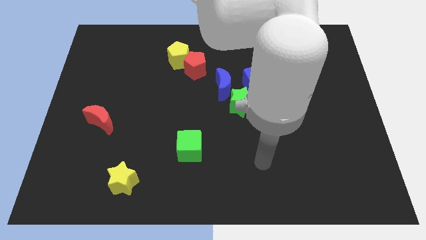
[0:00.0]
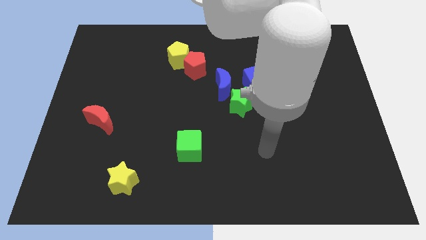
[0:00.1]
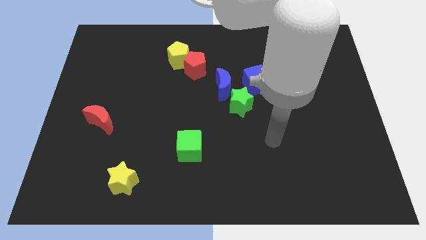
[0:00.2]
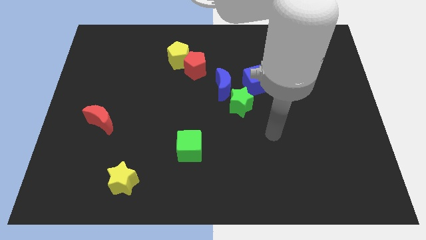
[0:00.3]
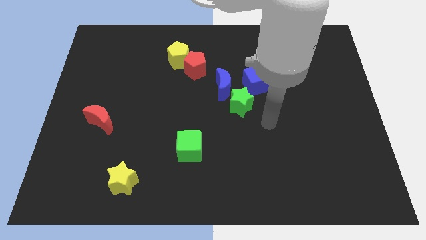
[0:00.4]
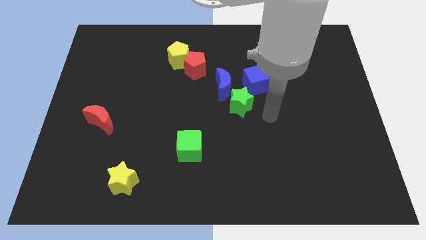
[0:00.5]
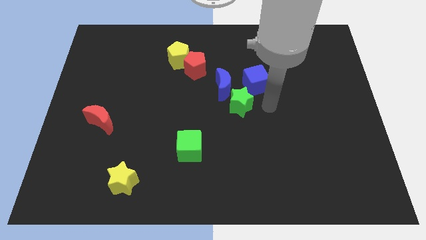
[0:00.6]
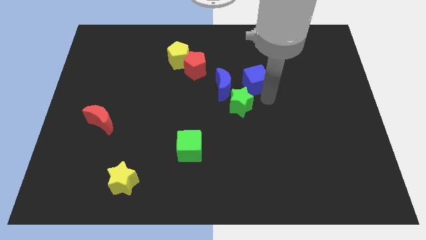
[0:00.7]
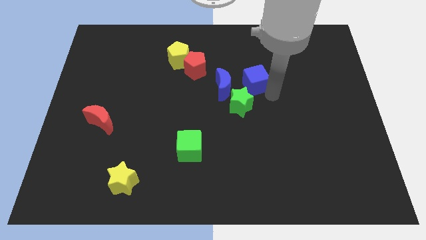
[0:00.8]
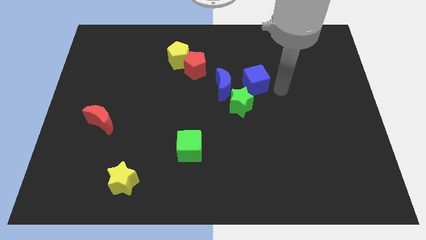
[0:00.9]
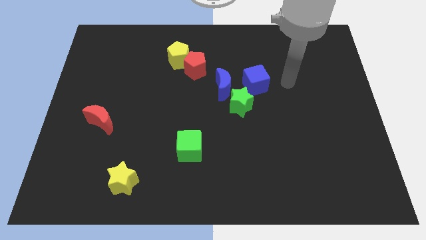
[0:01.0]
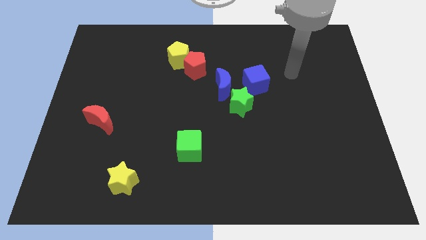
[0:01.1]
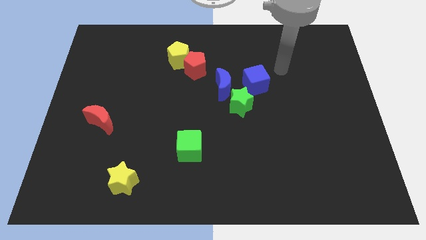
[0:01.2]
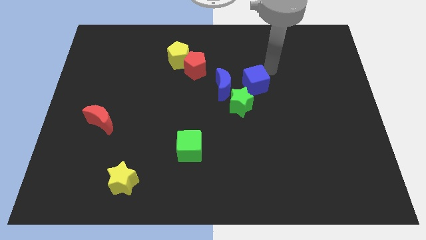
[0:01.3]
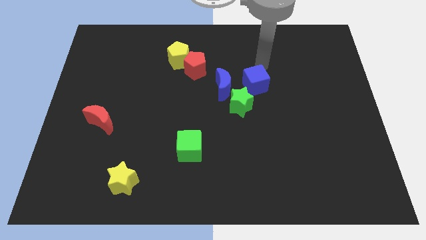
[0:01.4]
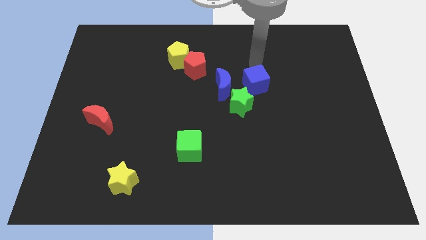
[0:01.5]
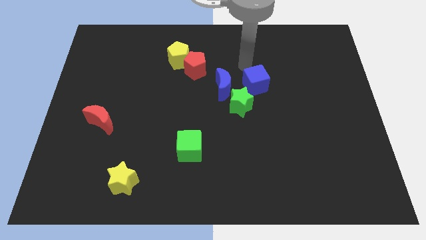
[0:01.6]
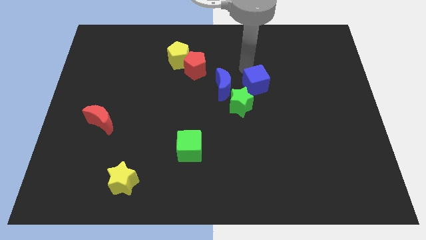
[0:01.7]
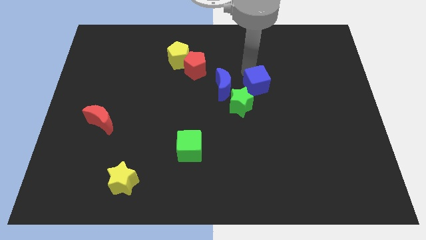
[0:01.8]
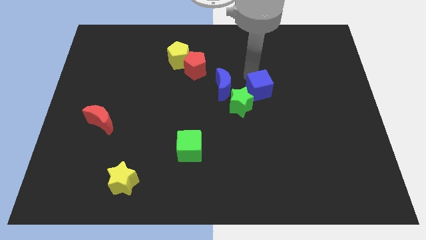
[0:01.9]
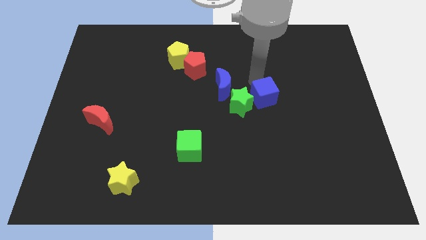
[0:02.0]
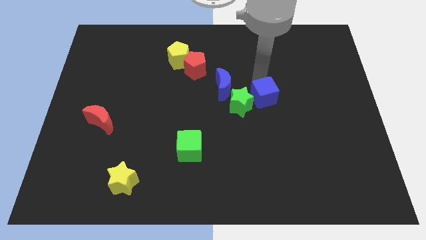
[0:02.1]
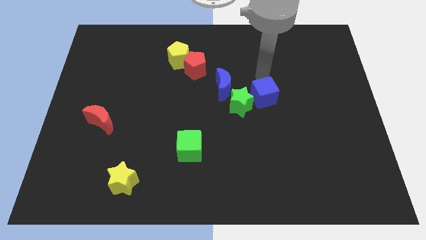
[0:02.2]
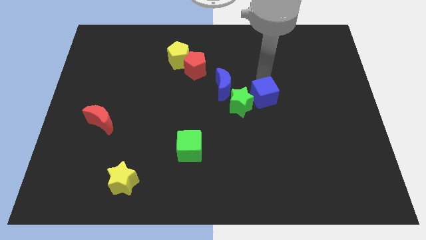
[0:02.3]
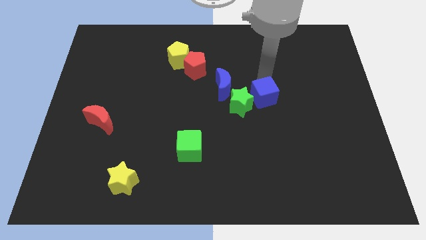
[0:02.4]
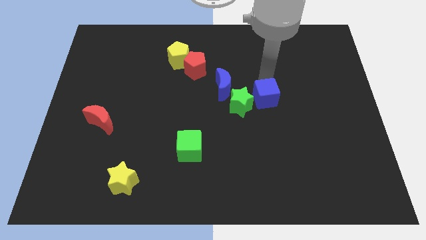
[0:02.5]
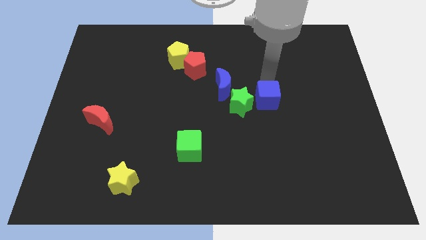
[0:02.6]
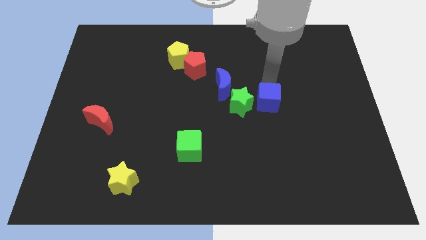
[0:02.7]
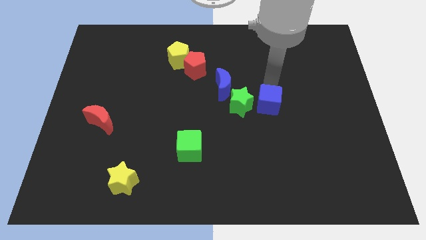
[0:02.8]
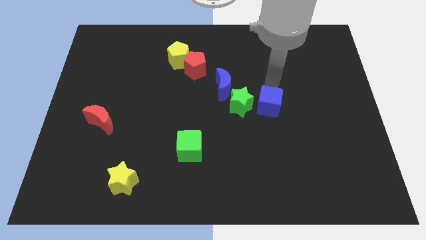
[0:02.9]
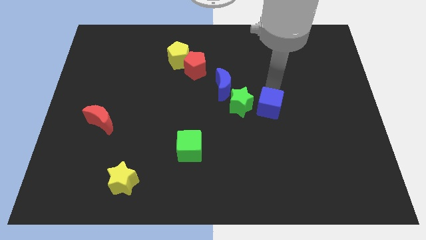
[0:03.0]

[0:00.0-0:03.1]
slightly move the blue cube downwards

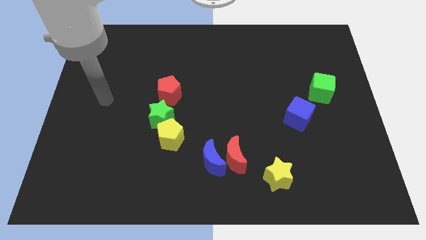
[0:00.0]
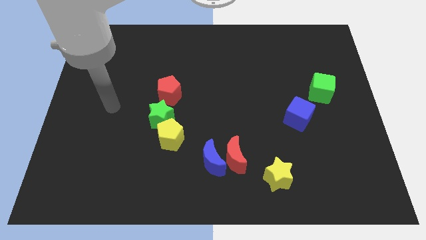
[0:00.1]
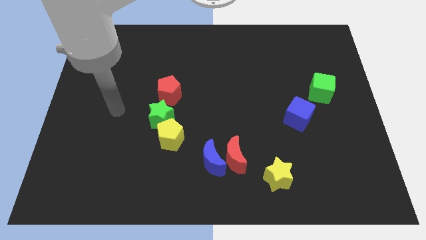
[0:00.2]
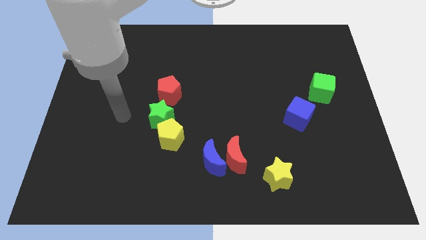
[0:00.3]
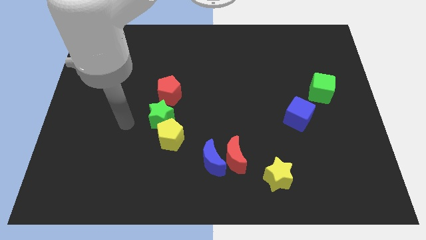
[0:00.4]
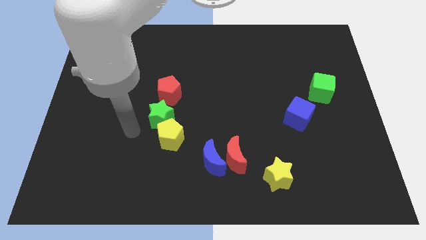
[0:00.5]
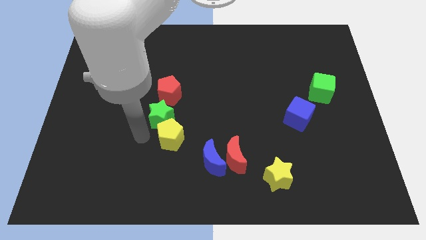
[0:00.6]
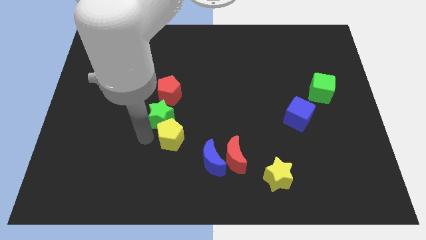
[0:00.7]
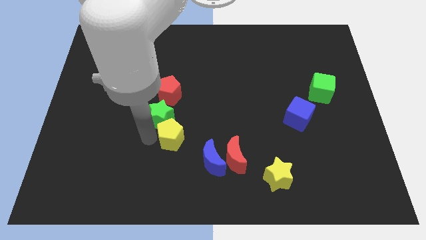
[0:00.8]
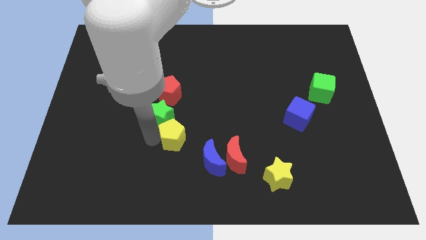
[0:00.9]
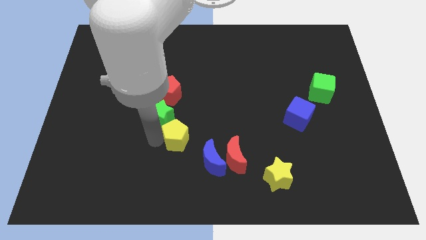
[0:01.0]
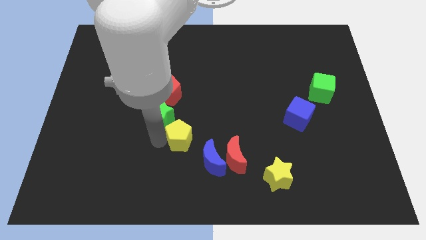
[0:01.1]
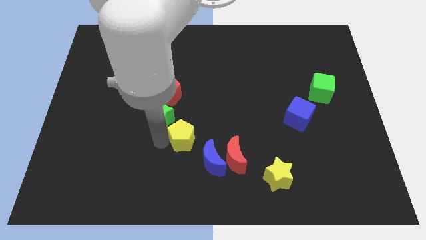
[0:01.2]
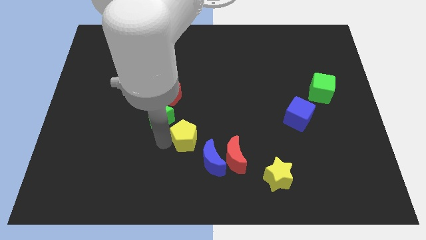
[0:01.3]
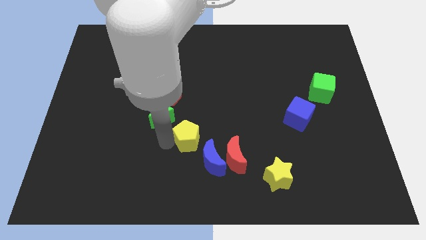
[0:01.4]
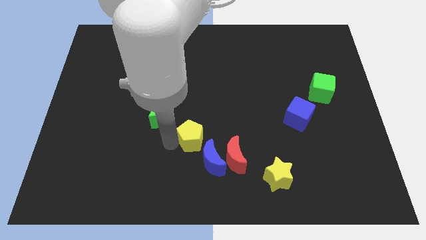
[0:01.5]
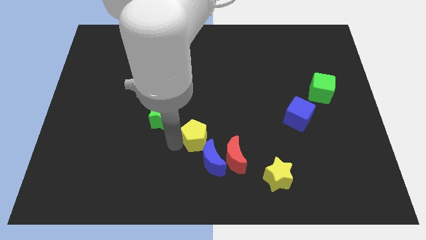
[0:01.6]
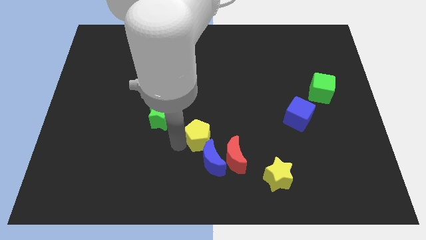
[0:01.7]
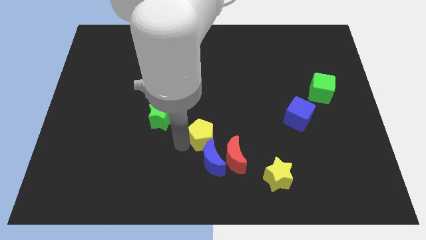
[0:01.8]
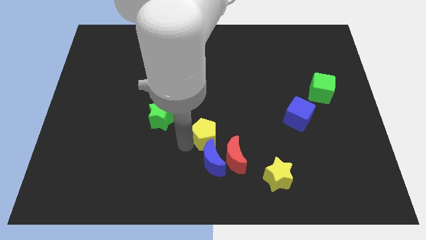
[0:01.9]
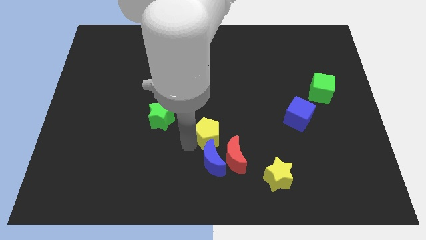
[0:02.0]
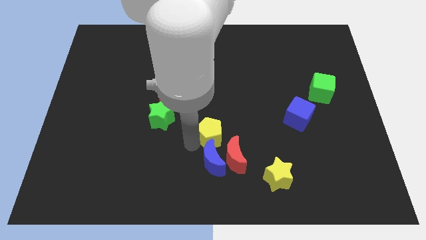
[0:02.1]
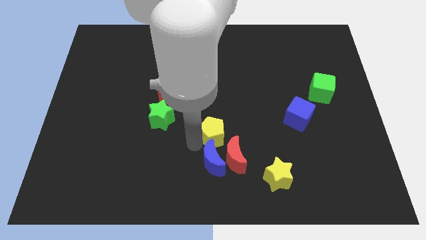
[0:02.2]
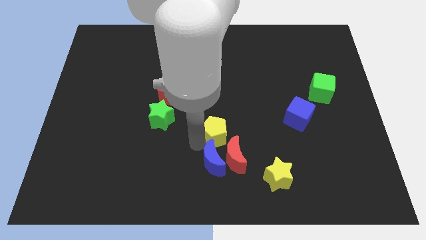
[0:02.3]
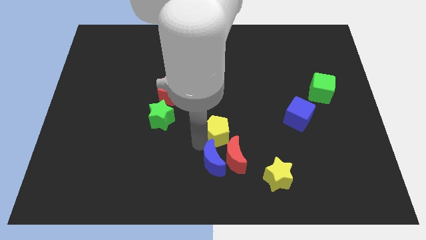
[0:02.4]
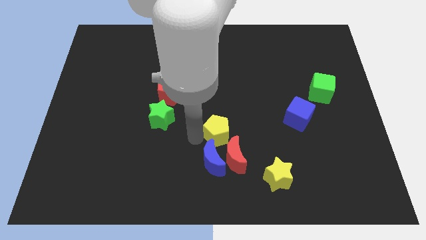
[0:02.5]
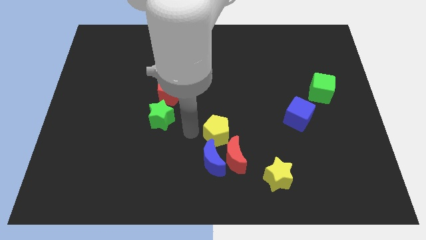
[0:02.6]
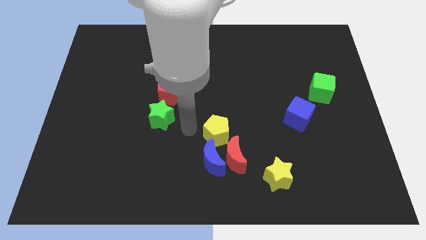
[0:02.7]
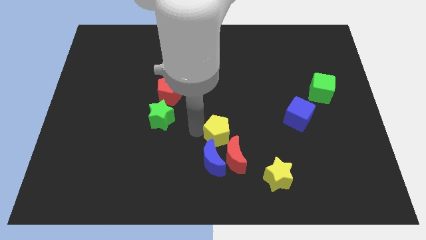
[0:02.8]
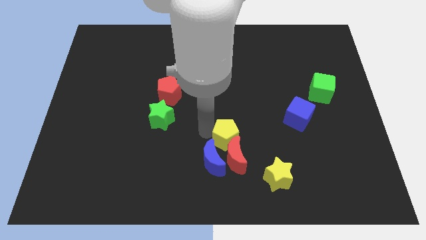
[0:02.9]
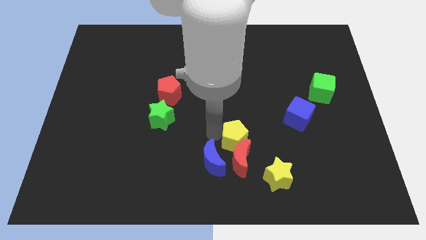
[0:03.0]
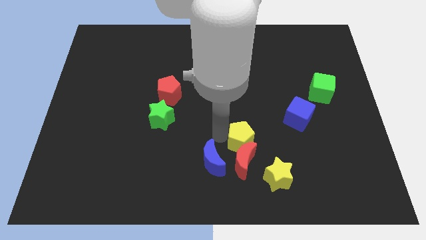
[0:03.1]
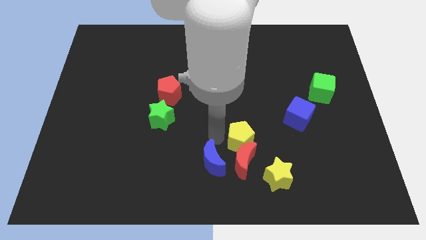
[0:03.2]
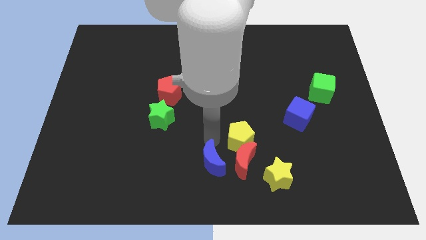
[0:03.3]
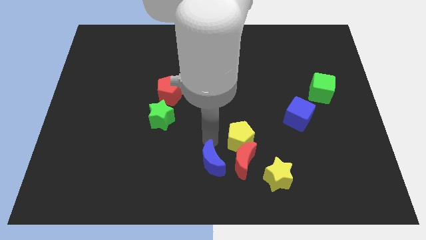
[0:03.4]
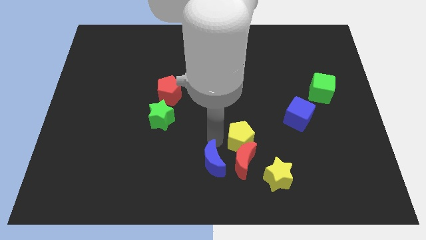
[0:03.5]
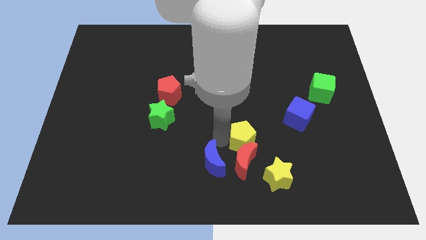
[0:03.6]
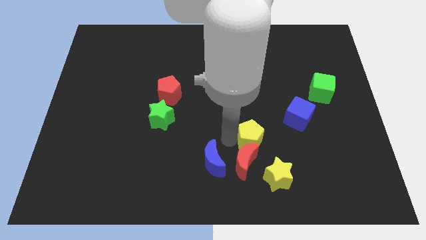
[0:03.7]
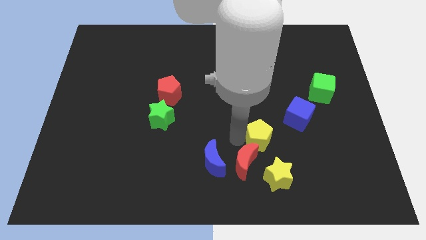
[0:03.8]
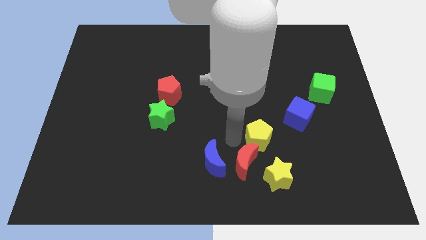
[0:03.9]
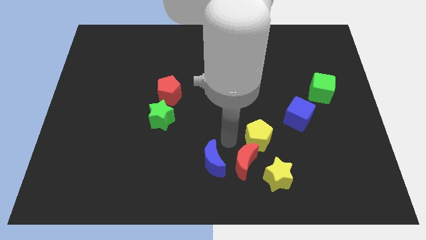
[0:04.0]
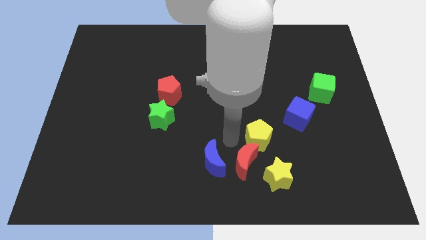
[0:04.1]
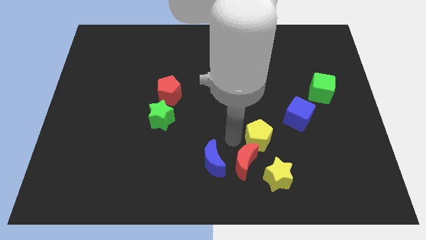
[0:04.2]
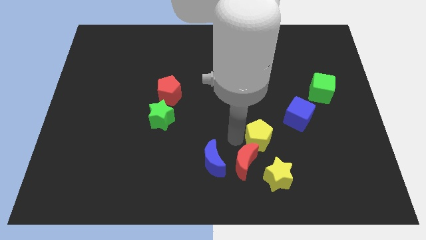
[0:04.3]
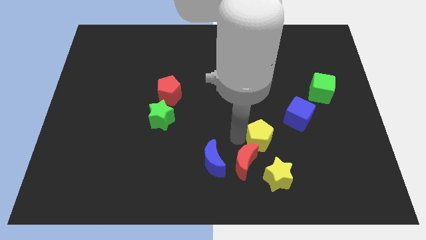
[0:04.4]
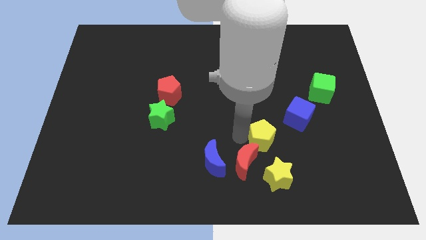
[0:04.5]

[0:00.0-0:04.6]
move the yellow pentagon right

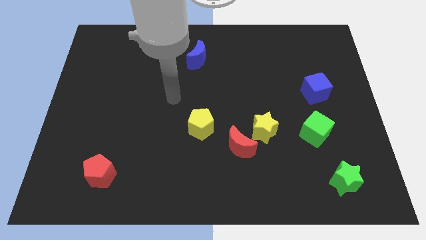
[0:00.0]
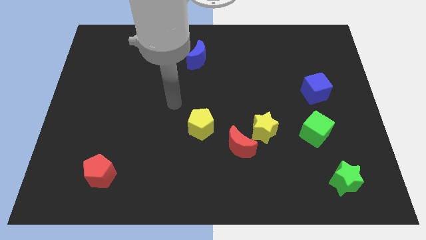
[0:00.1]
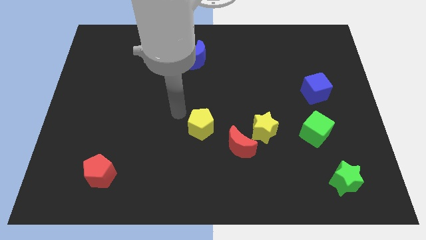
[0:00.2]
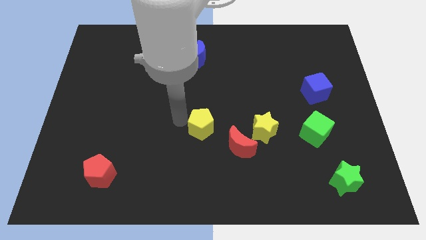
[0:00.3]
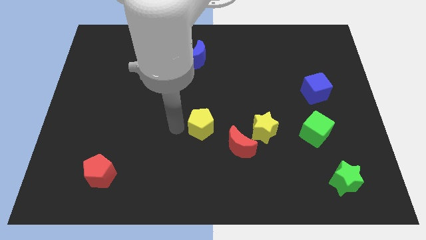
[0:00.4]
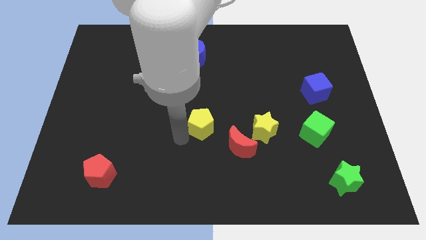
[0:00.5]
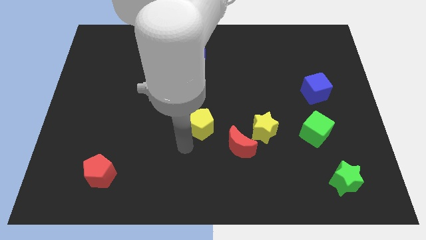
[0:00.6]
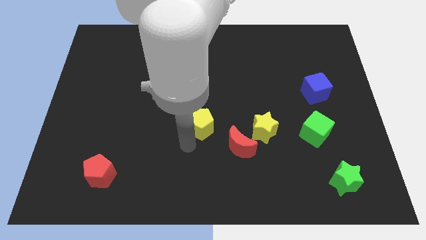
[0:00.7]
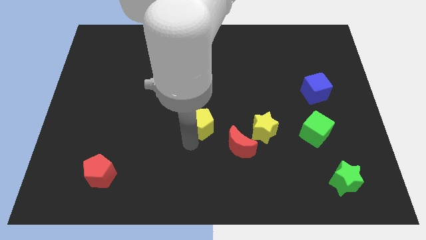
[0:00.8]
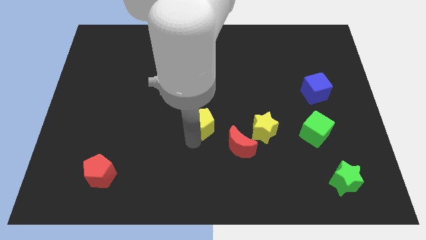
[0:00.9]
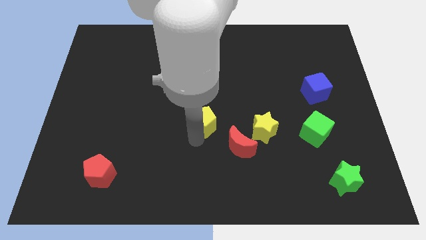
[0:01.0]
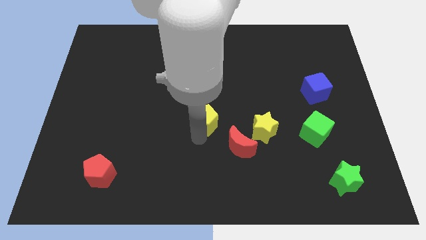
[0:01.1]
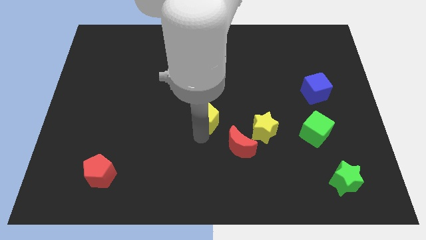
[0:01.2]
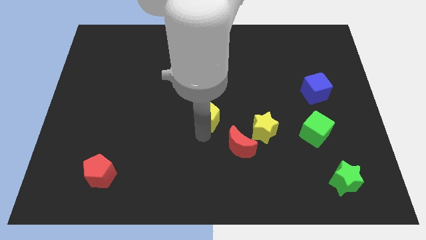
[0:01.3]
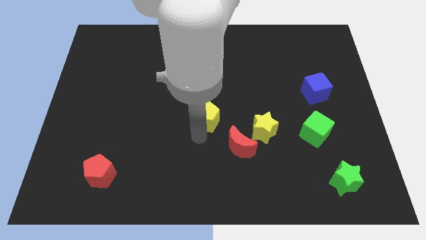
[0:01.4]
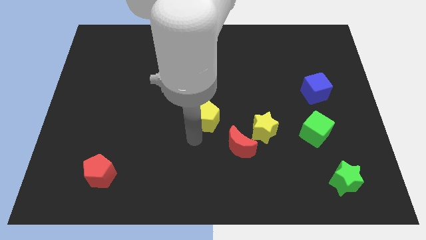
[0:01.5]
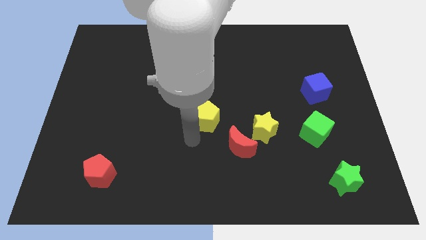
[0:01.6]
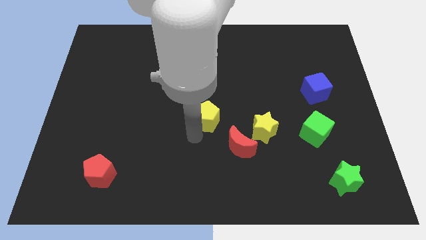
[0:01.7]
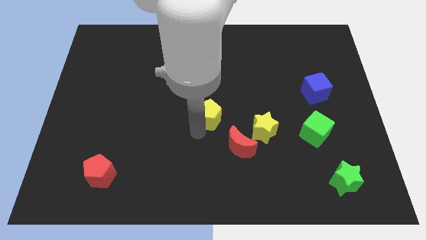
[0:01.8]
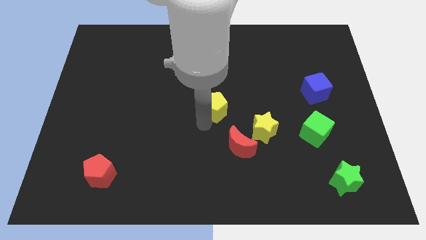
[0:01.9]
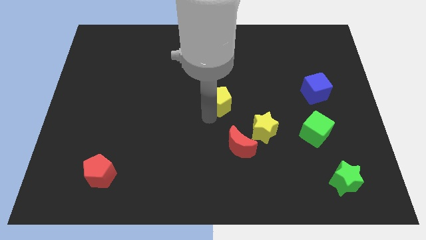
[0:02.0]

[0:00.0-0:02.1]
slightly push the yellow pentagon up and to the right diagonally
